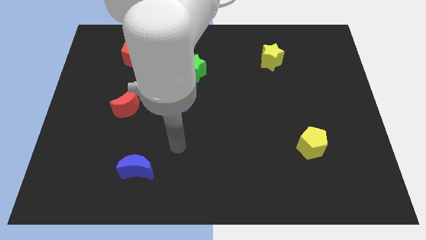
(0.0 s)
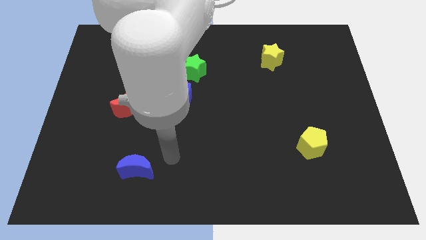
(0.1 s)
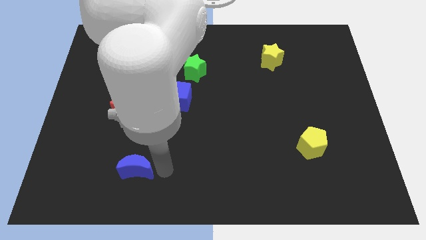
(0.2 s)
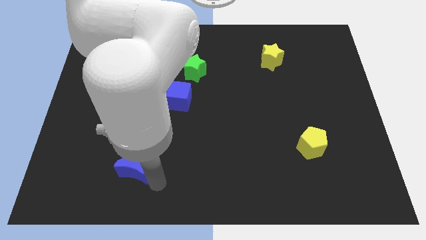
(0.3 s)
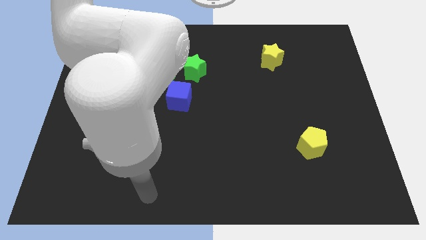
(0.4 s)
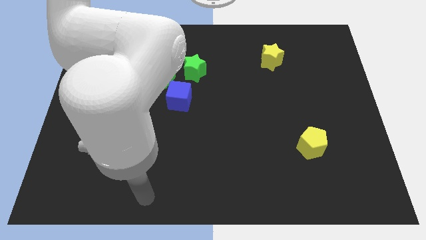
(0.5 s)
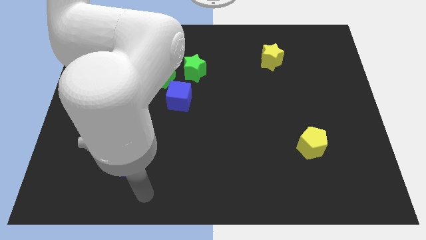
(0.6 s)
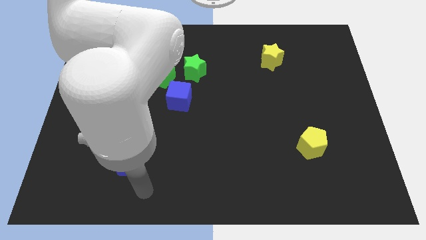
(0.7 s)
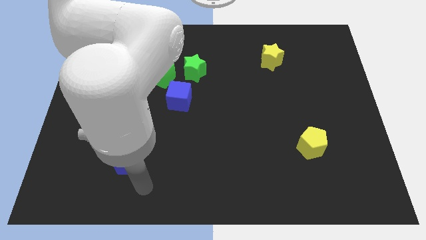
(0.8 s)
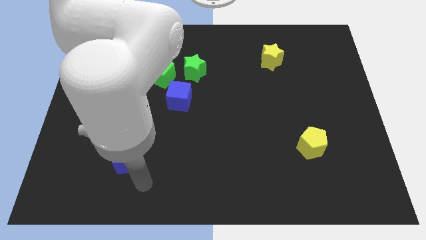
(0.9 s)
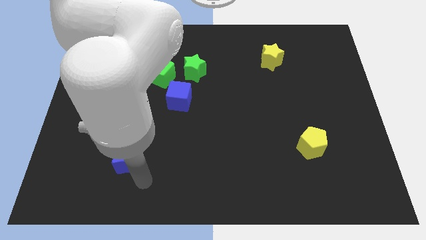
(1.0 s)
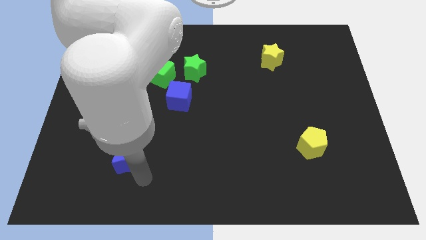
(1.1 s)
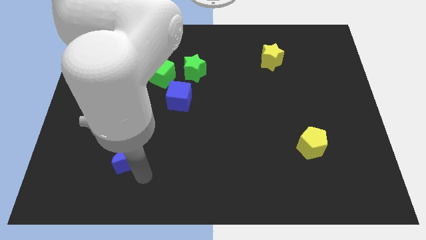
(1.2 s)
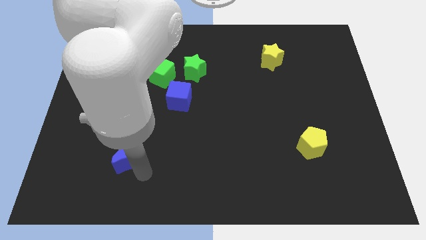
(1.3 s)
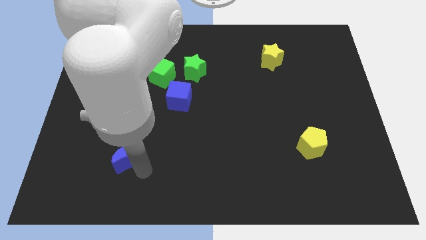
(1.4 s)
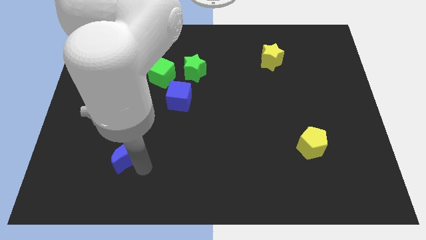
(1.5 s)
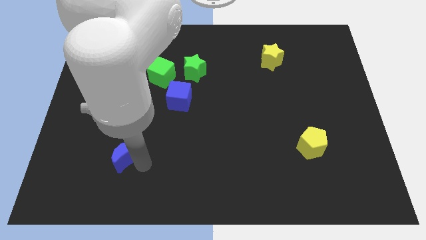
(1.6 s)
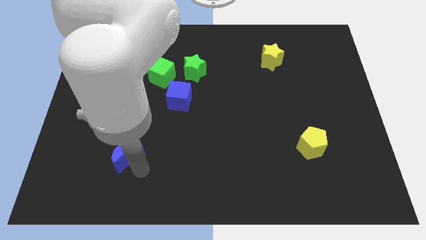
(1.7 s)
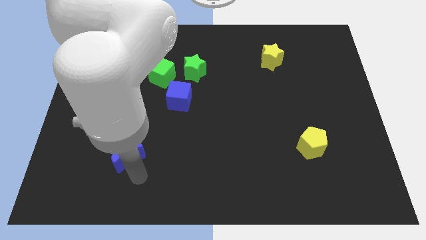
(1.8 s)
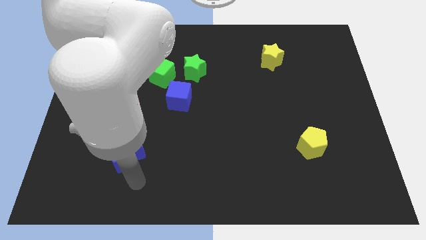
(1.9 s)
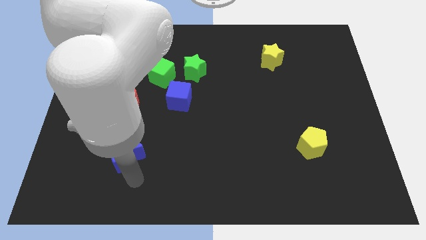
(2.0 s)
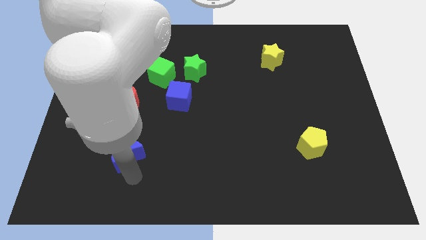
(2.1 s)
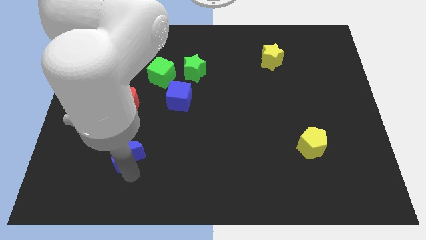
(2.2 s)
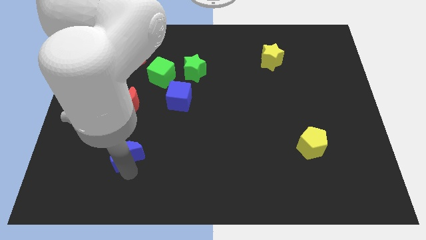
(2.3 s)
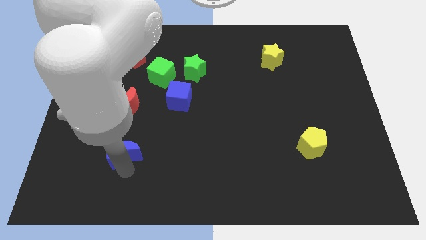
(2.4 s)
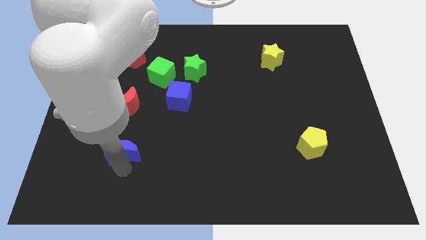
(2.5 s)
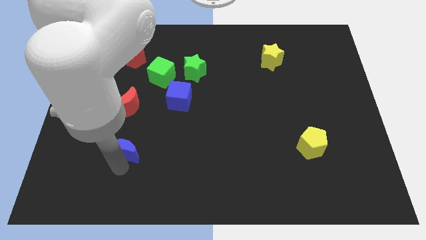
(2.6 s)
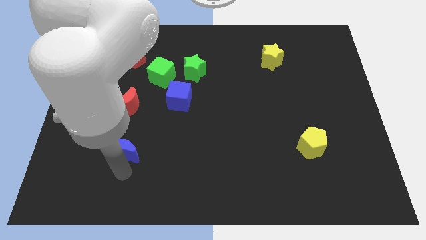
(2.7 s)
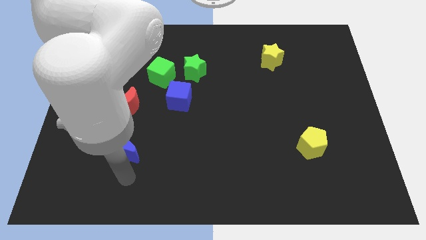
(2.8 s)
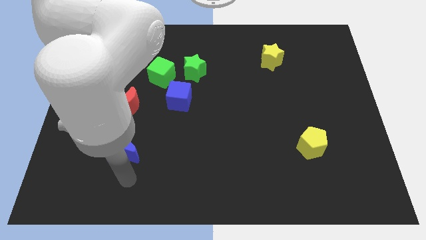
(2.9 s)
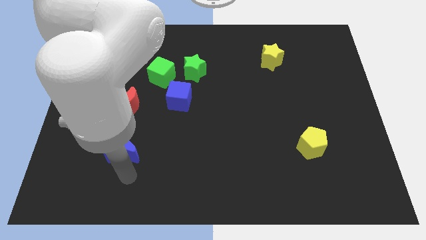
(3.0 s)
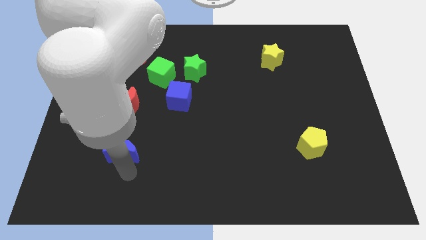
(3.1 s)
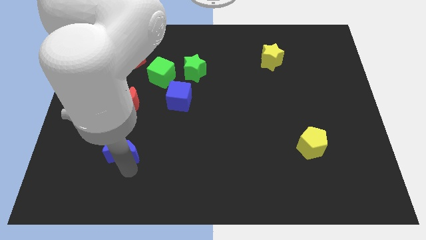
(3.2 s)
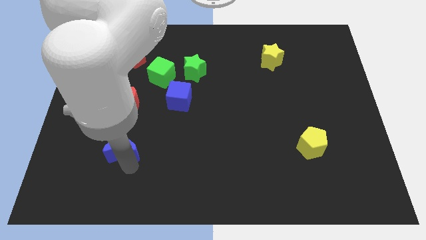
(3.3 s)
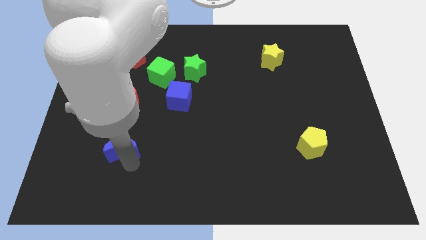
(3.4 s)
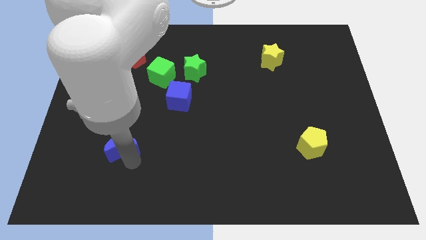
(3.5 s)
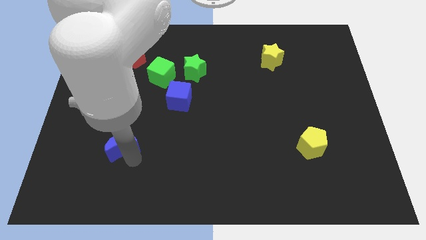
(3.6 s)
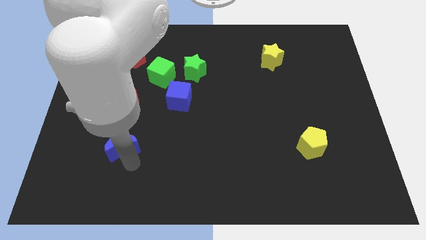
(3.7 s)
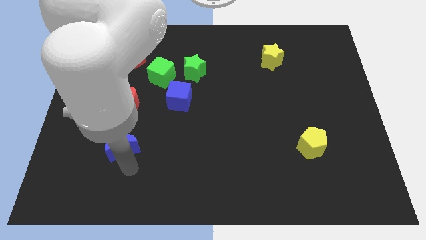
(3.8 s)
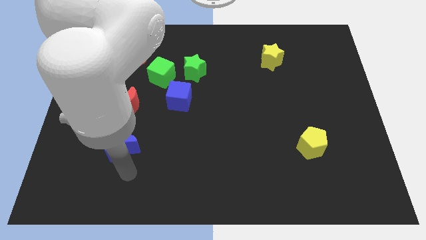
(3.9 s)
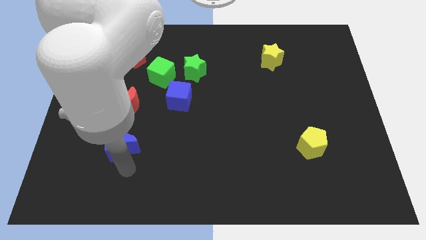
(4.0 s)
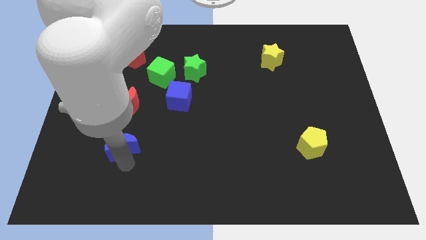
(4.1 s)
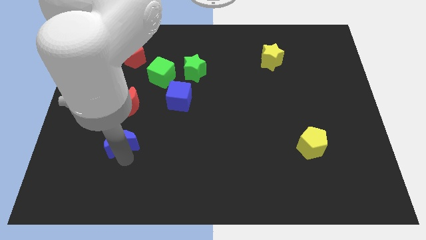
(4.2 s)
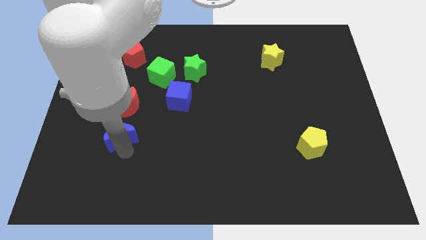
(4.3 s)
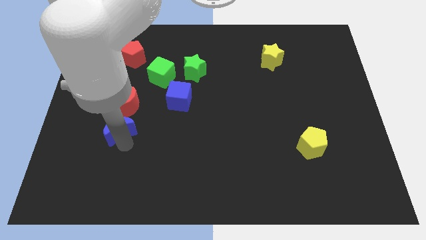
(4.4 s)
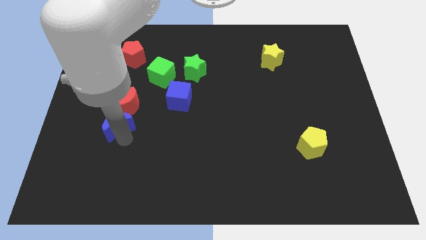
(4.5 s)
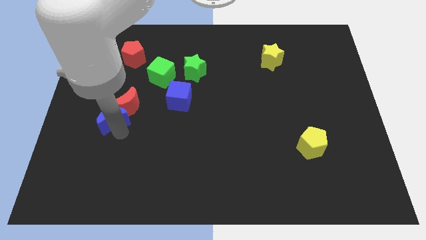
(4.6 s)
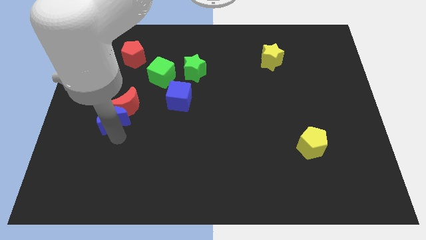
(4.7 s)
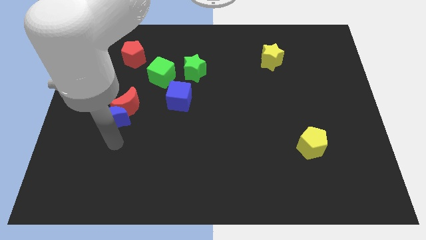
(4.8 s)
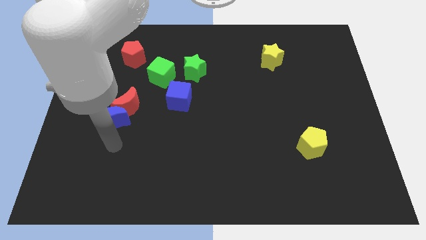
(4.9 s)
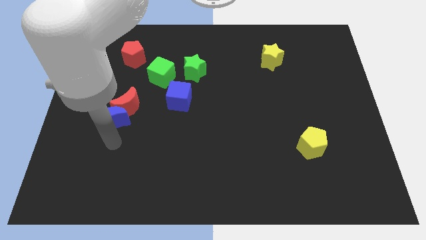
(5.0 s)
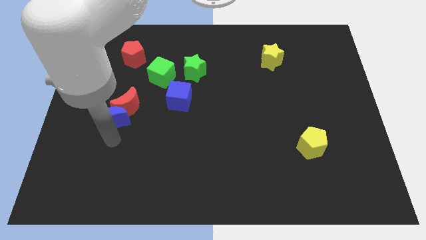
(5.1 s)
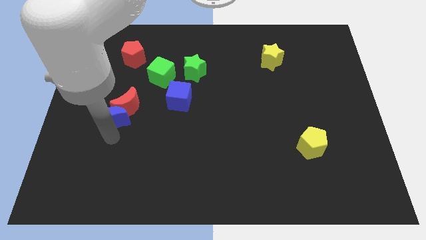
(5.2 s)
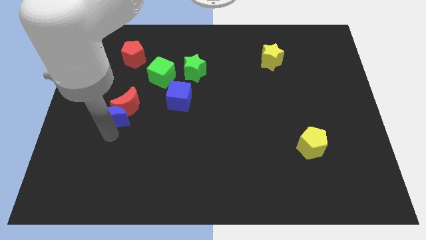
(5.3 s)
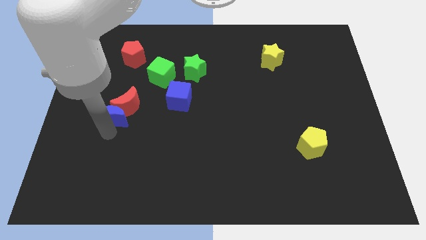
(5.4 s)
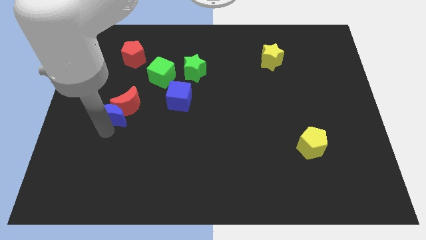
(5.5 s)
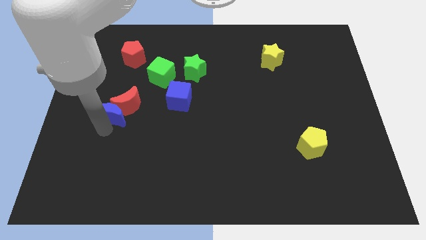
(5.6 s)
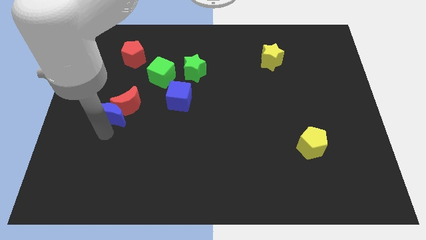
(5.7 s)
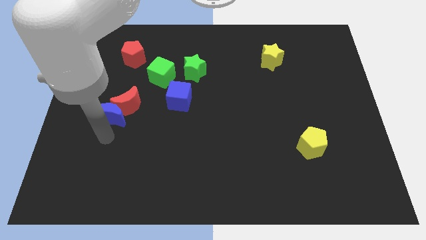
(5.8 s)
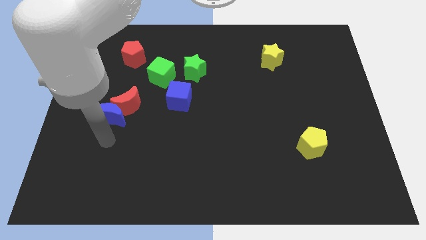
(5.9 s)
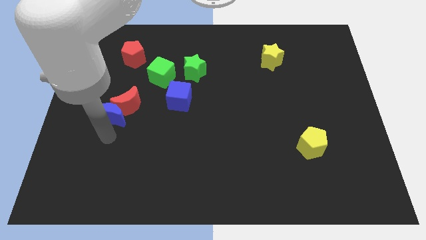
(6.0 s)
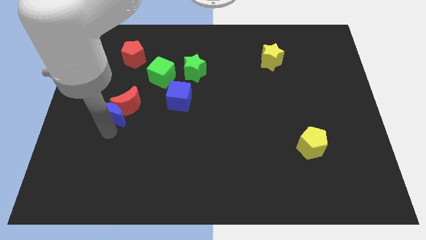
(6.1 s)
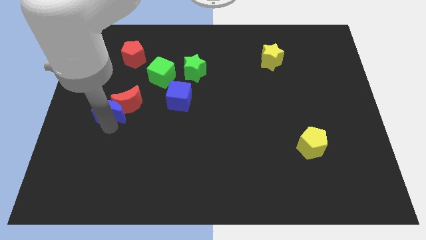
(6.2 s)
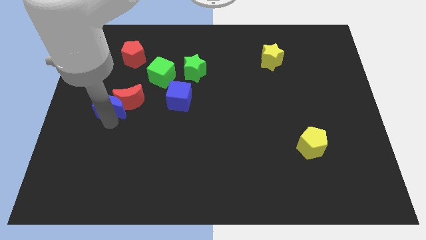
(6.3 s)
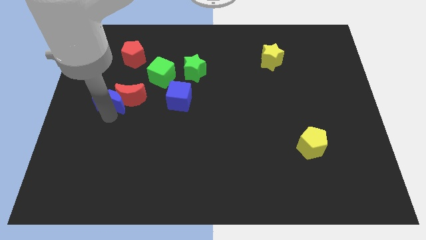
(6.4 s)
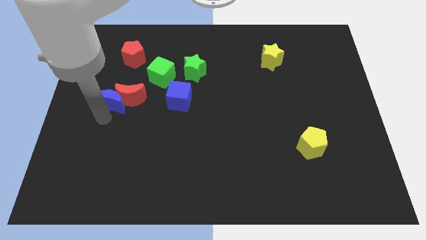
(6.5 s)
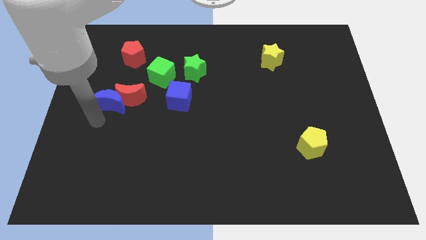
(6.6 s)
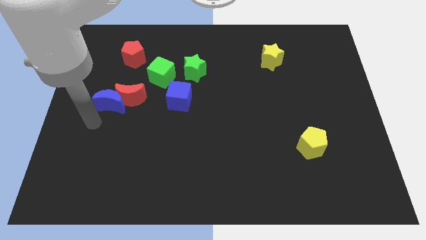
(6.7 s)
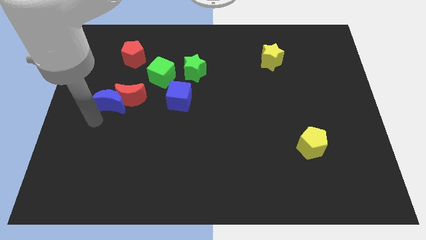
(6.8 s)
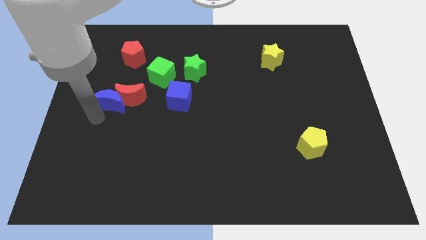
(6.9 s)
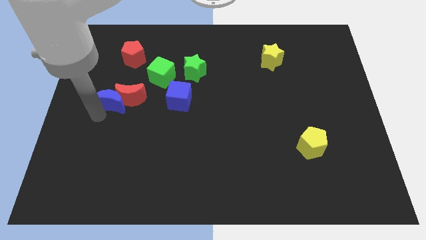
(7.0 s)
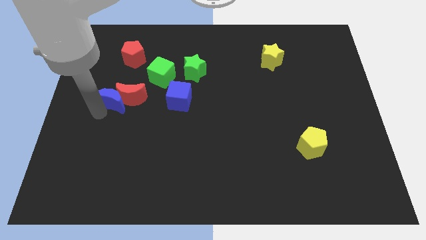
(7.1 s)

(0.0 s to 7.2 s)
move the blue moon below the red pentagon
